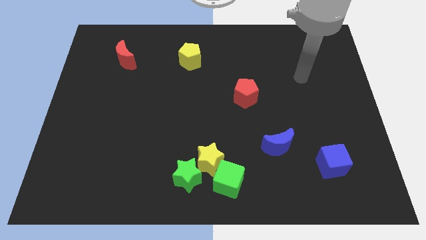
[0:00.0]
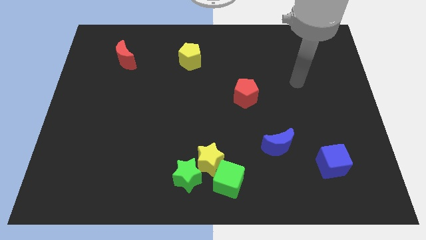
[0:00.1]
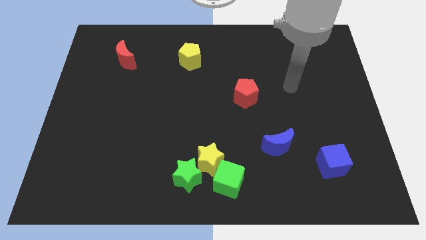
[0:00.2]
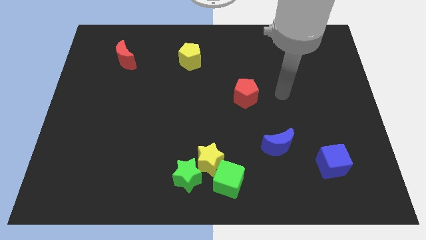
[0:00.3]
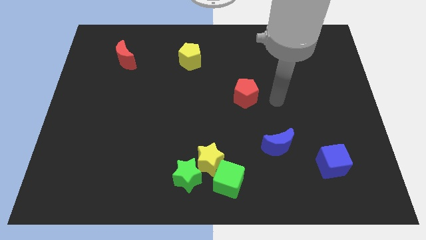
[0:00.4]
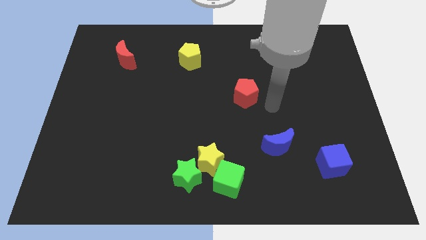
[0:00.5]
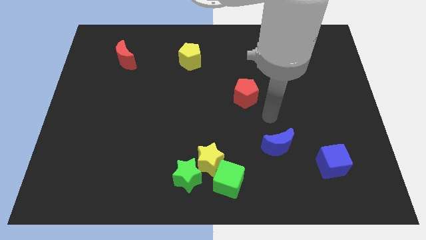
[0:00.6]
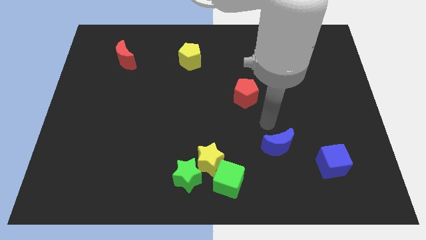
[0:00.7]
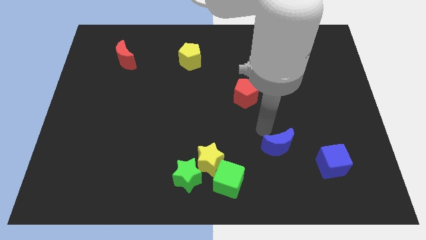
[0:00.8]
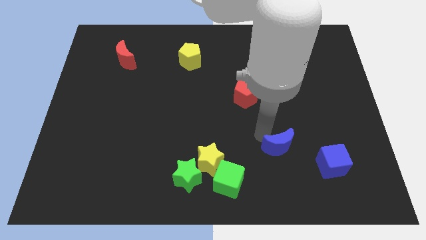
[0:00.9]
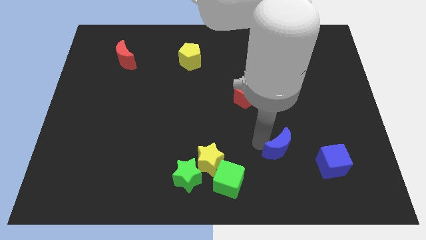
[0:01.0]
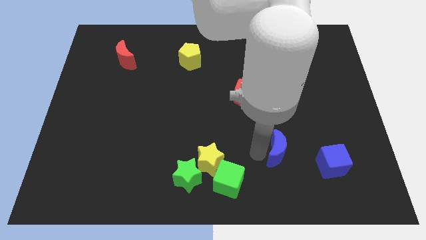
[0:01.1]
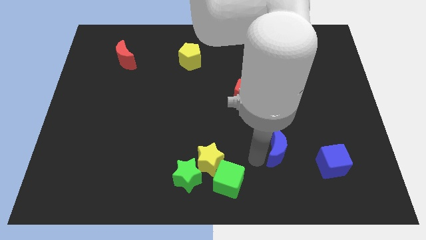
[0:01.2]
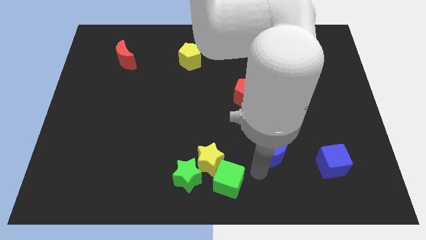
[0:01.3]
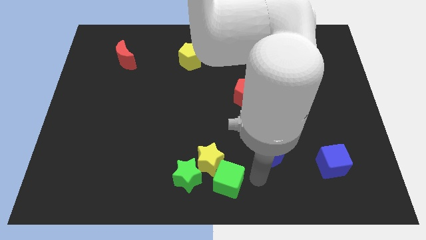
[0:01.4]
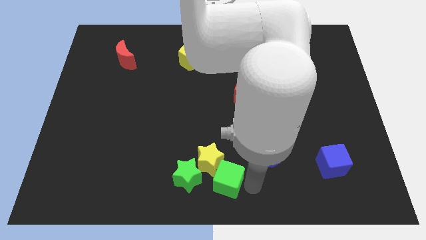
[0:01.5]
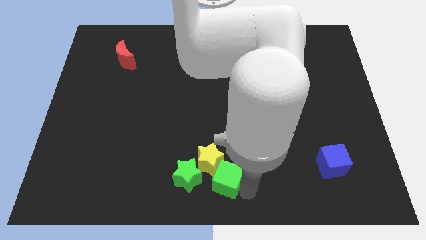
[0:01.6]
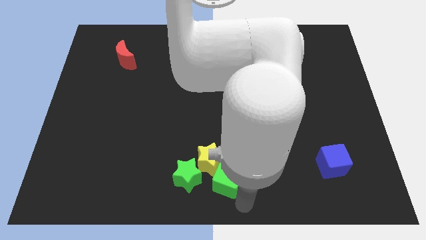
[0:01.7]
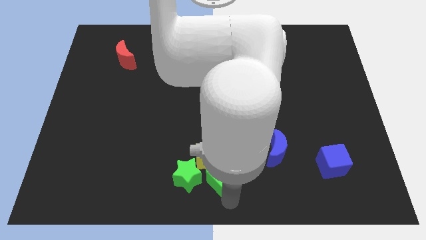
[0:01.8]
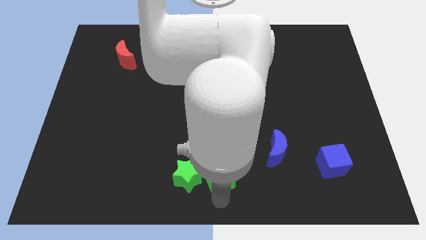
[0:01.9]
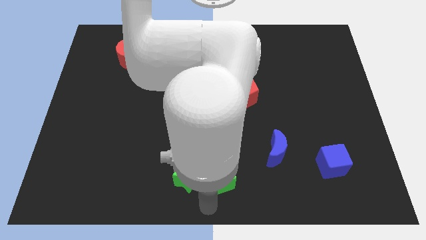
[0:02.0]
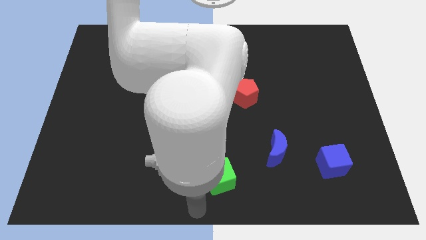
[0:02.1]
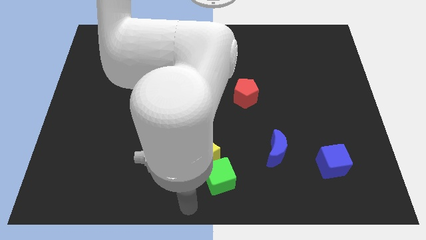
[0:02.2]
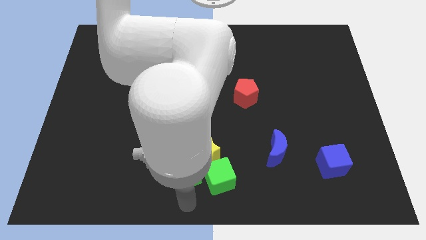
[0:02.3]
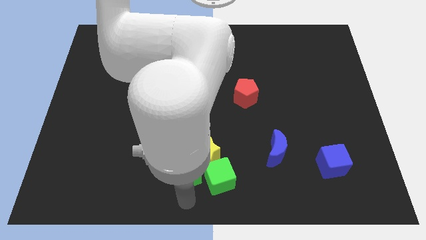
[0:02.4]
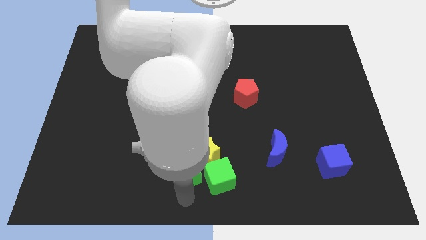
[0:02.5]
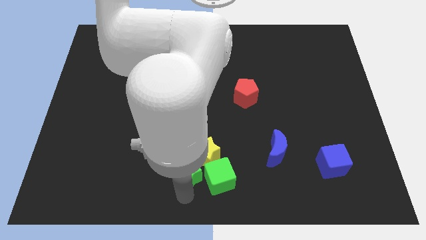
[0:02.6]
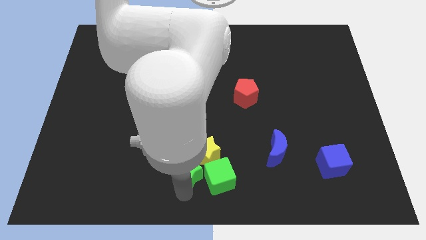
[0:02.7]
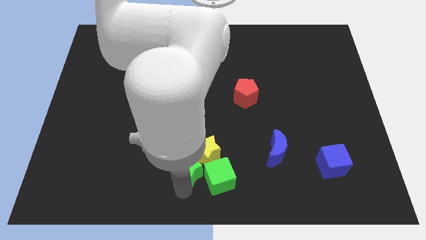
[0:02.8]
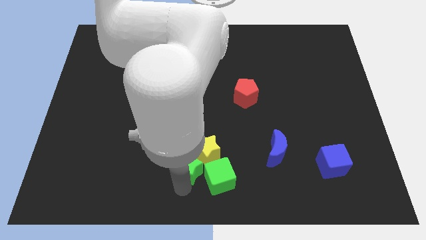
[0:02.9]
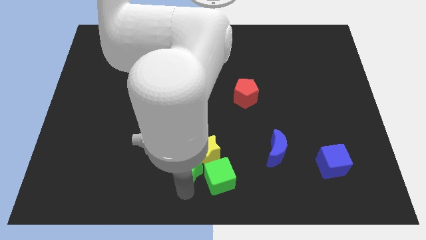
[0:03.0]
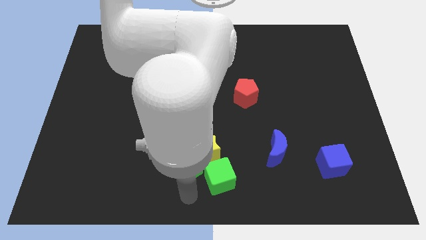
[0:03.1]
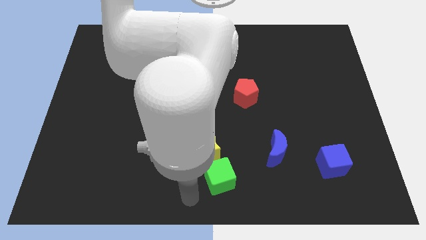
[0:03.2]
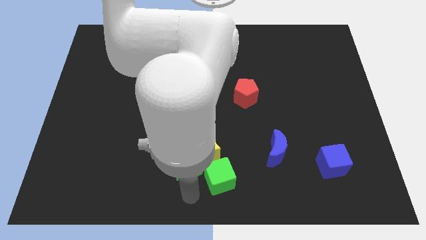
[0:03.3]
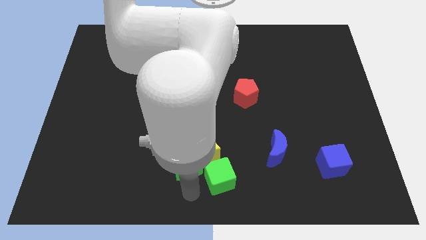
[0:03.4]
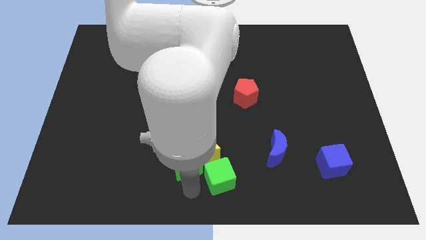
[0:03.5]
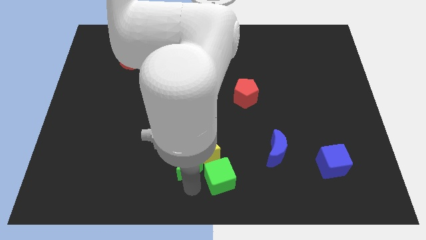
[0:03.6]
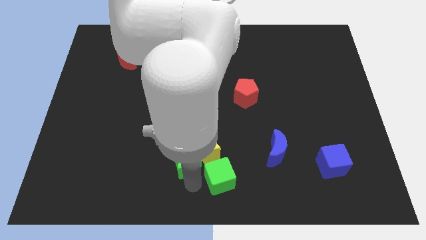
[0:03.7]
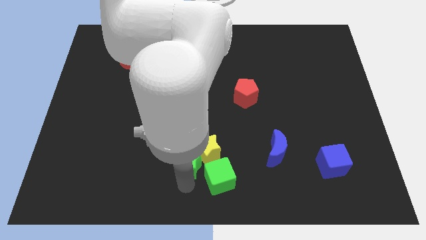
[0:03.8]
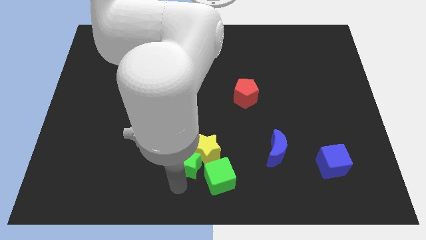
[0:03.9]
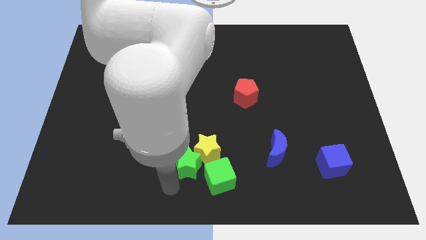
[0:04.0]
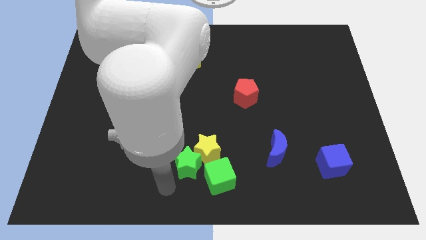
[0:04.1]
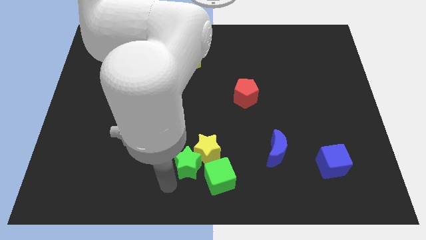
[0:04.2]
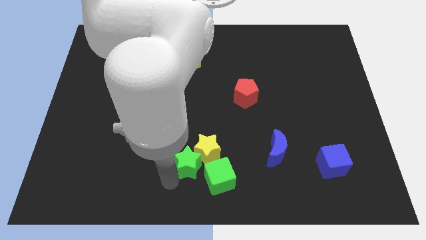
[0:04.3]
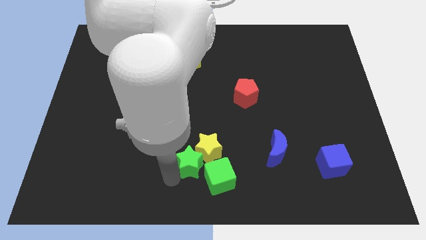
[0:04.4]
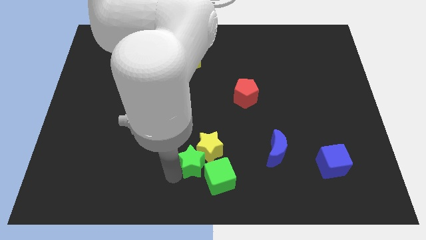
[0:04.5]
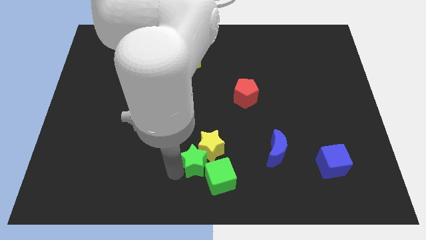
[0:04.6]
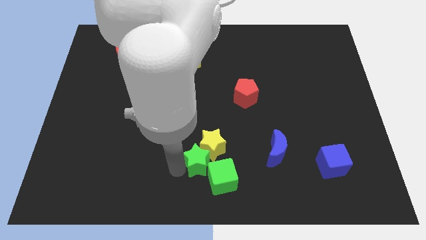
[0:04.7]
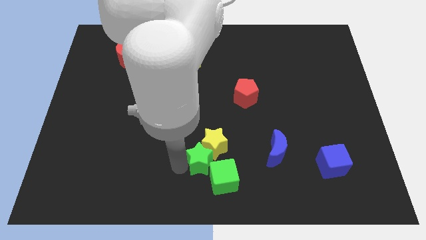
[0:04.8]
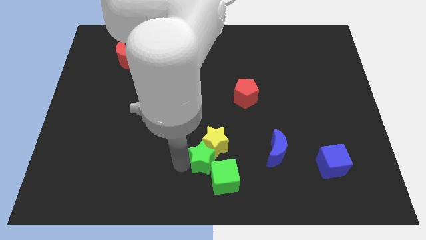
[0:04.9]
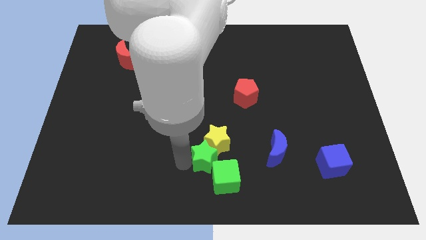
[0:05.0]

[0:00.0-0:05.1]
move the green star left of the blue moon

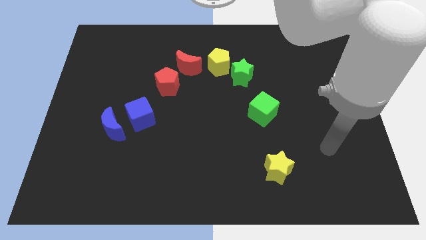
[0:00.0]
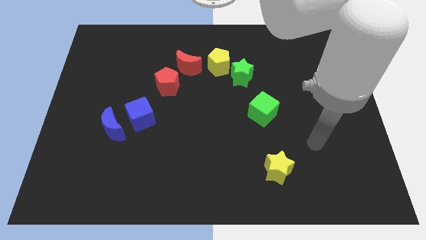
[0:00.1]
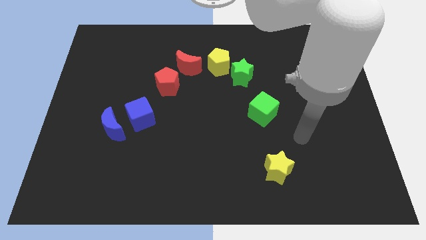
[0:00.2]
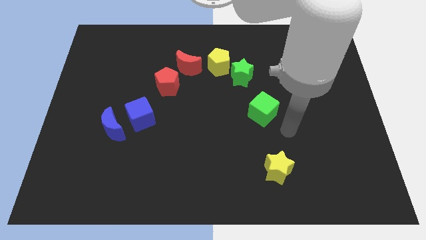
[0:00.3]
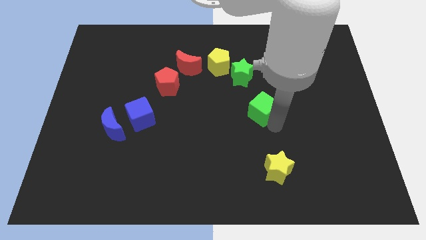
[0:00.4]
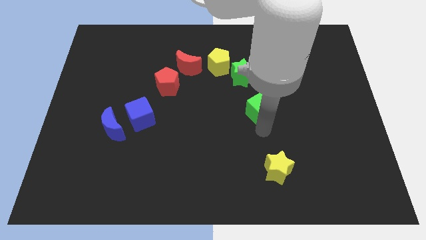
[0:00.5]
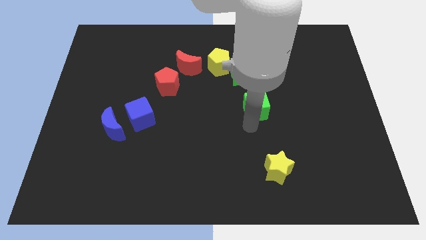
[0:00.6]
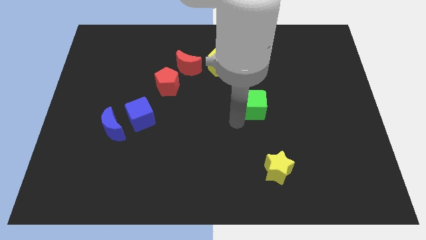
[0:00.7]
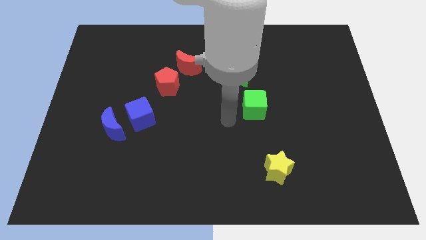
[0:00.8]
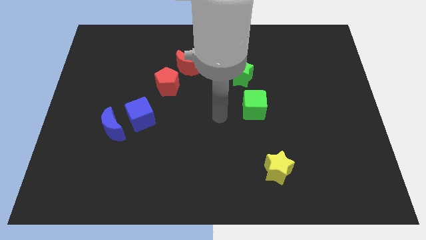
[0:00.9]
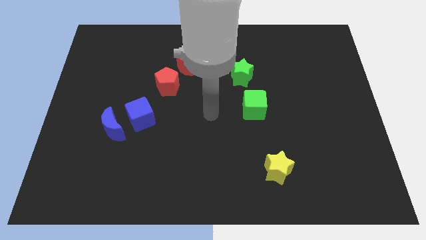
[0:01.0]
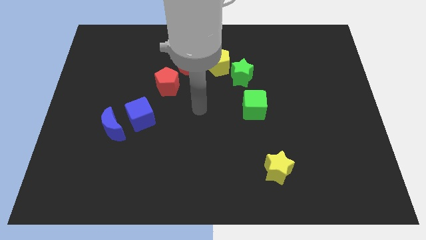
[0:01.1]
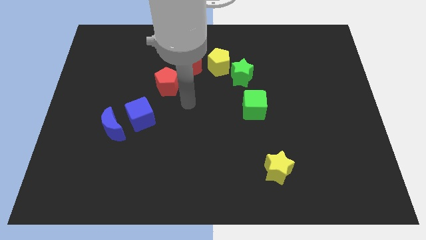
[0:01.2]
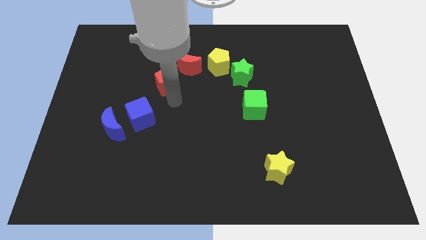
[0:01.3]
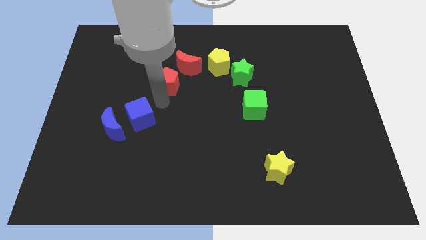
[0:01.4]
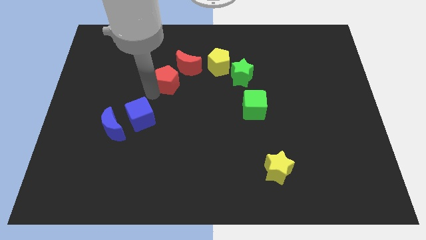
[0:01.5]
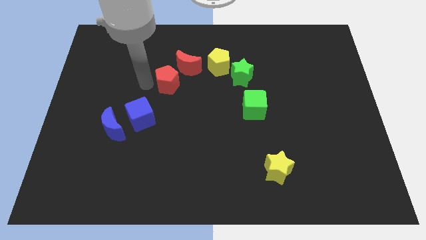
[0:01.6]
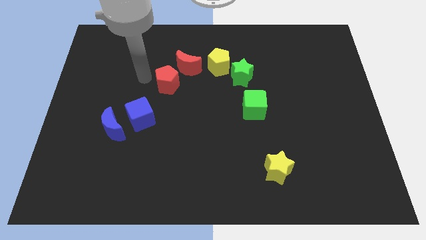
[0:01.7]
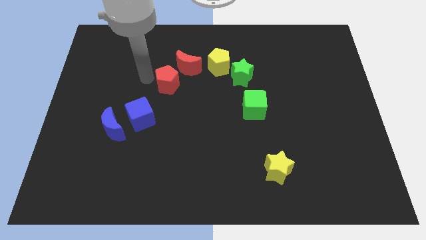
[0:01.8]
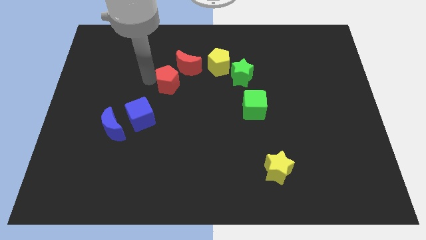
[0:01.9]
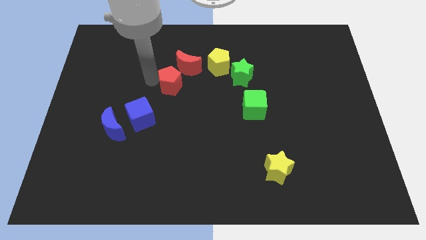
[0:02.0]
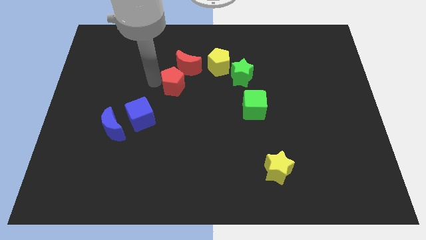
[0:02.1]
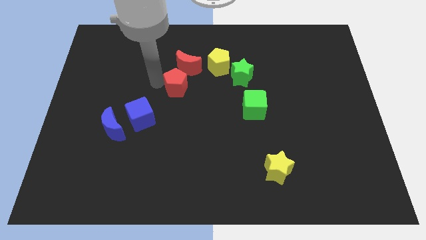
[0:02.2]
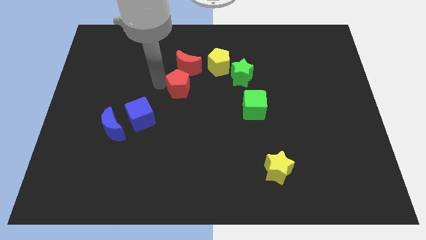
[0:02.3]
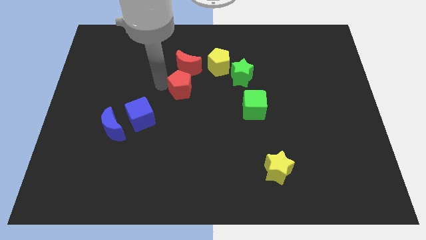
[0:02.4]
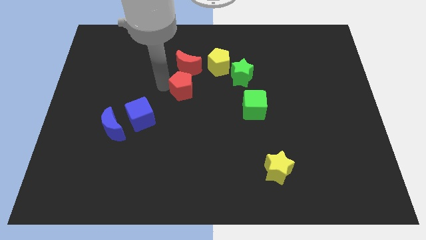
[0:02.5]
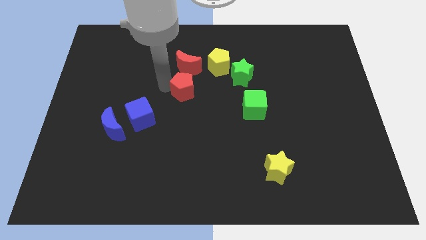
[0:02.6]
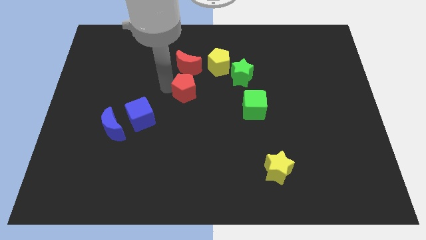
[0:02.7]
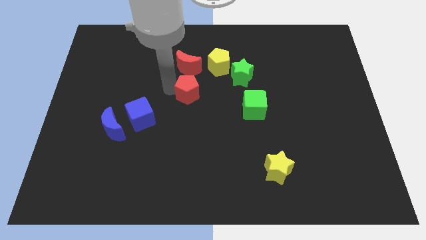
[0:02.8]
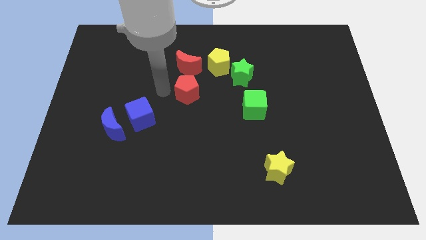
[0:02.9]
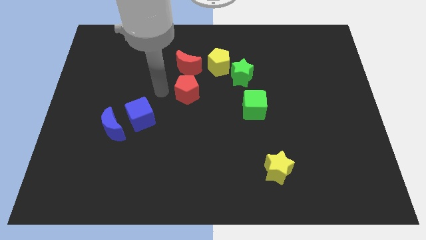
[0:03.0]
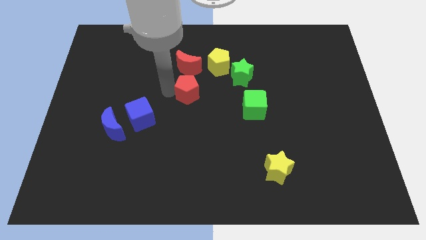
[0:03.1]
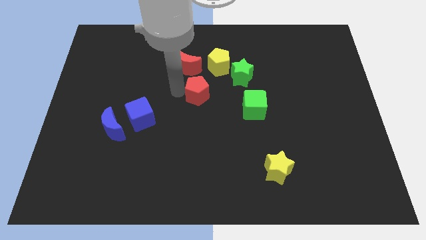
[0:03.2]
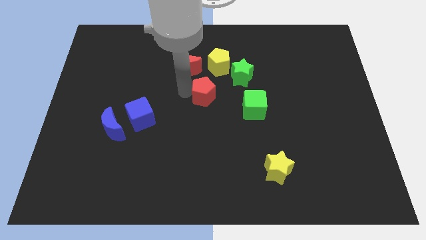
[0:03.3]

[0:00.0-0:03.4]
put the red pentagon diagonally down and to the left of the green star
